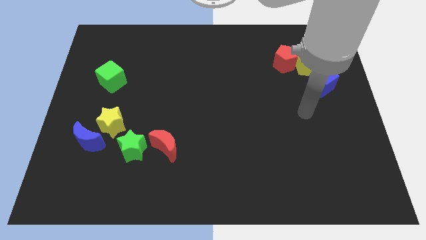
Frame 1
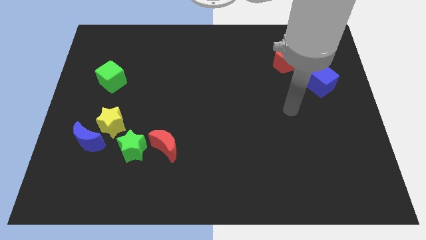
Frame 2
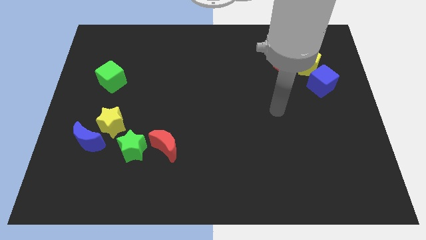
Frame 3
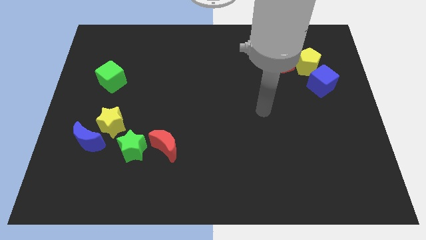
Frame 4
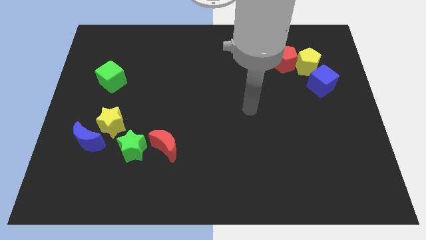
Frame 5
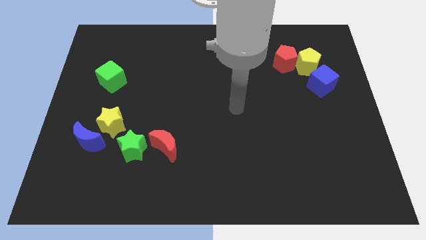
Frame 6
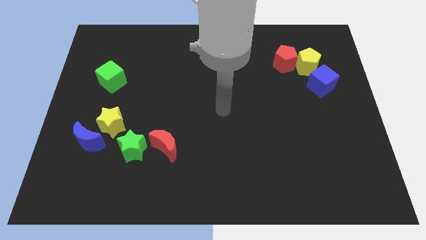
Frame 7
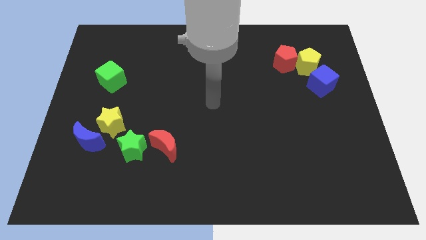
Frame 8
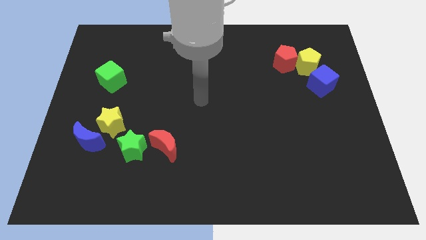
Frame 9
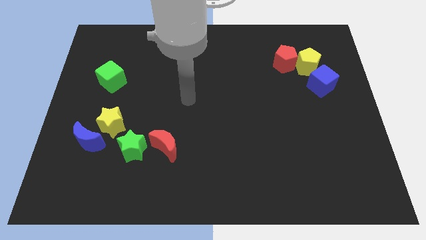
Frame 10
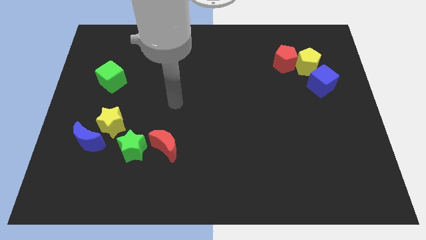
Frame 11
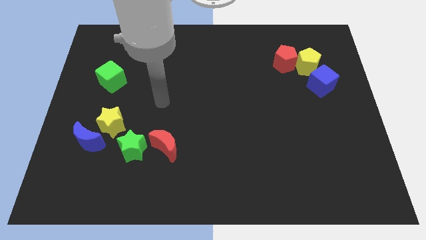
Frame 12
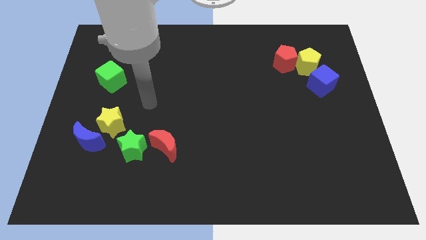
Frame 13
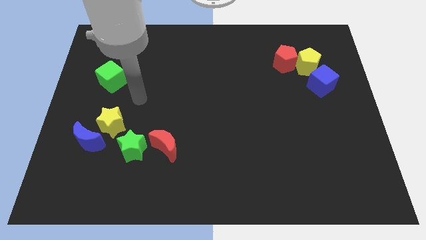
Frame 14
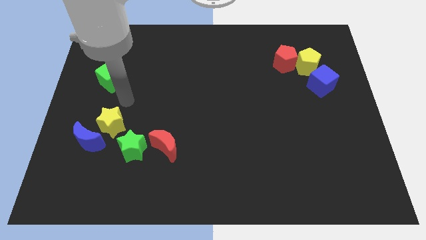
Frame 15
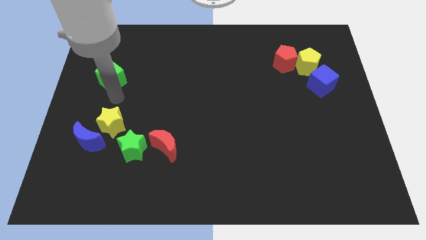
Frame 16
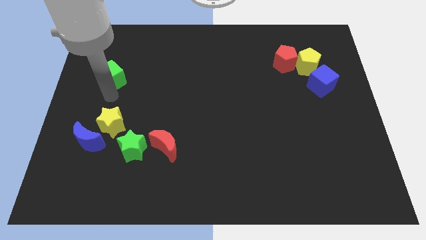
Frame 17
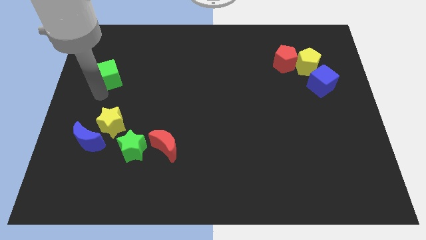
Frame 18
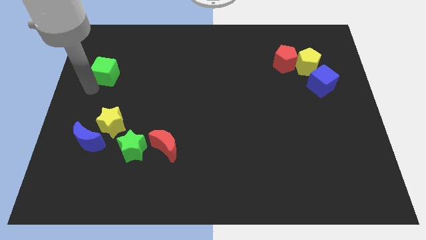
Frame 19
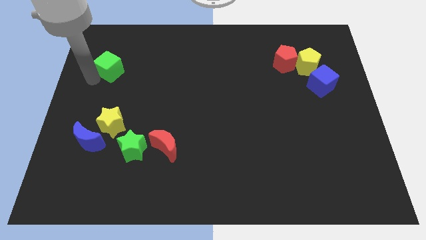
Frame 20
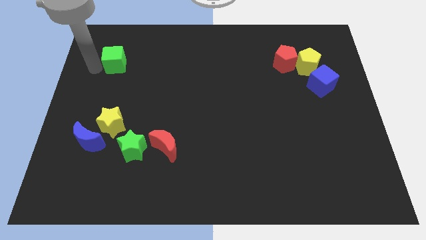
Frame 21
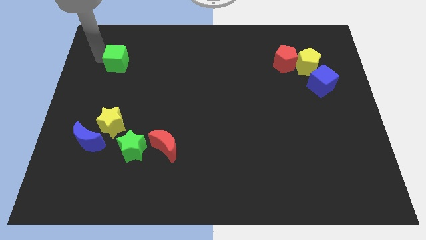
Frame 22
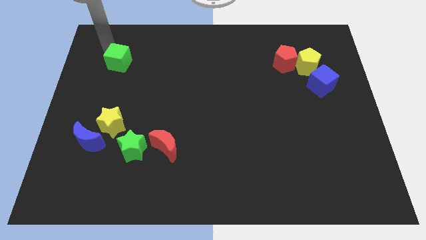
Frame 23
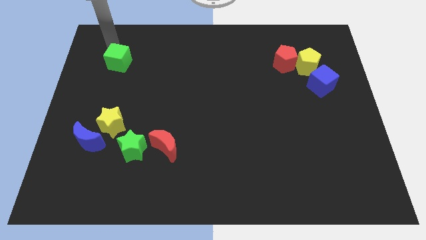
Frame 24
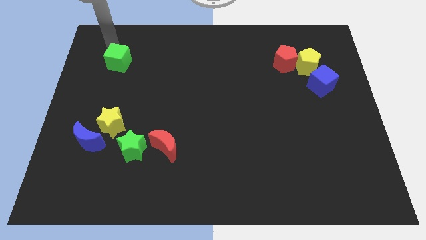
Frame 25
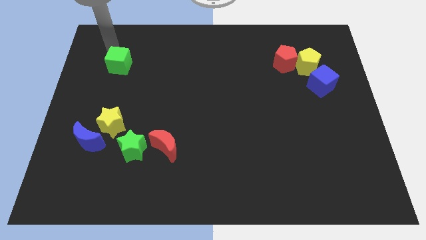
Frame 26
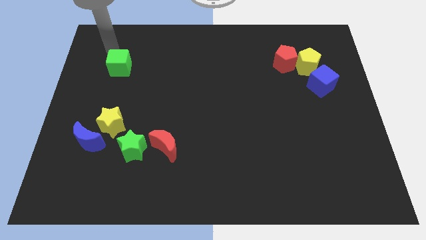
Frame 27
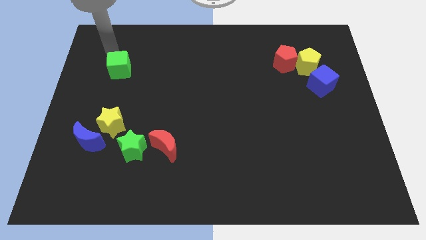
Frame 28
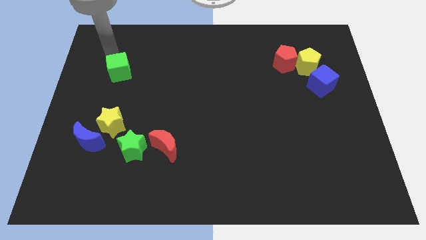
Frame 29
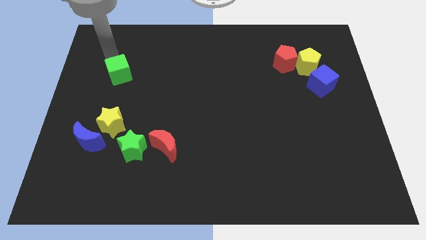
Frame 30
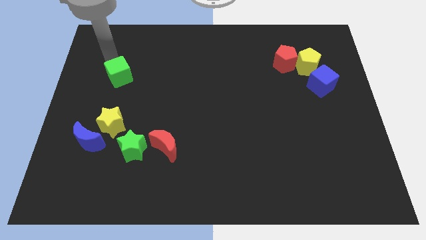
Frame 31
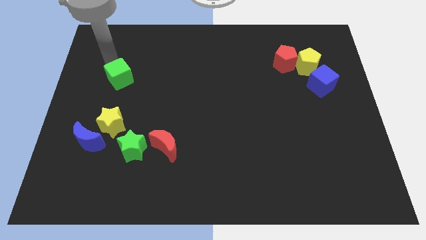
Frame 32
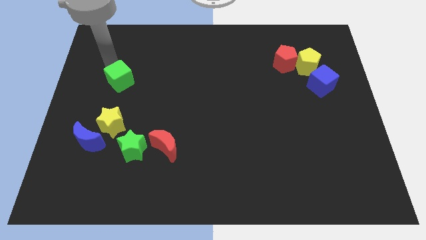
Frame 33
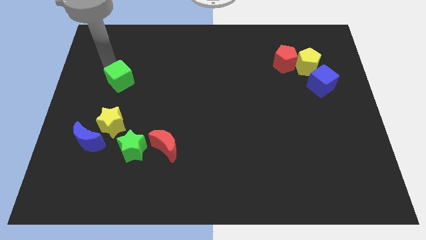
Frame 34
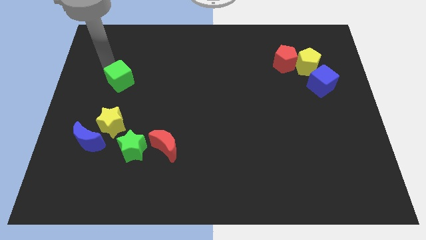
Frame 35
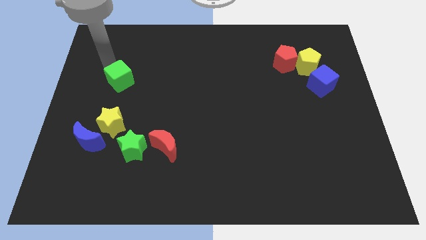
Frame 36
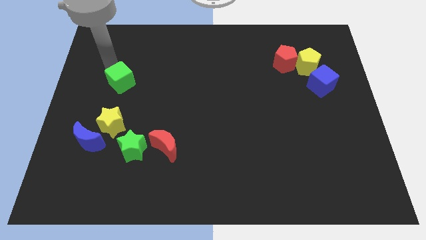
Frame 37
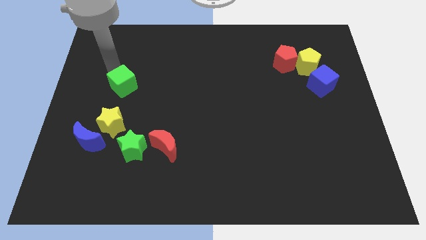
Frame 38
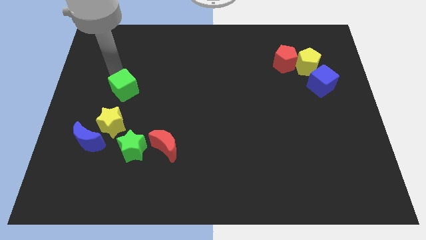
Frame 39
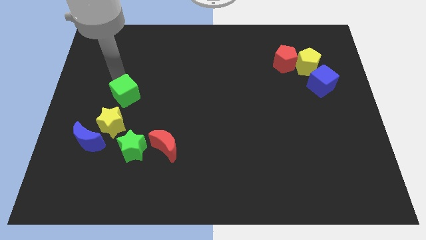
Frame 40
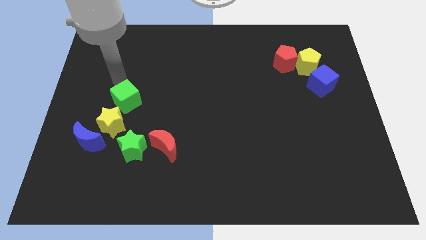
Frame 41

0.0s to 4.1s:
push the green cube a little bit downwards and right

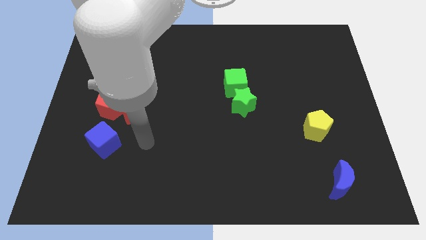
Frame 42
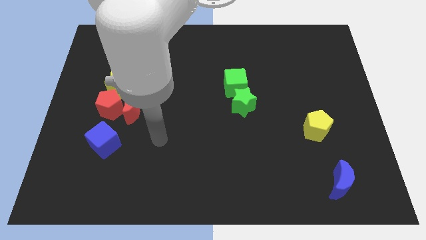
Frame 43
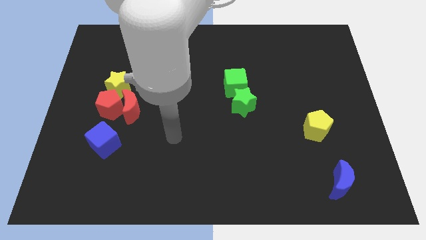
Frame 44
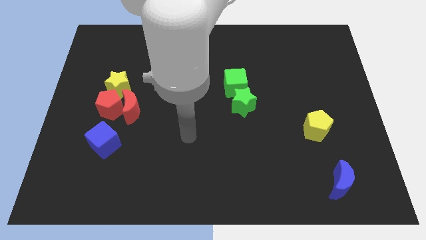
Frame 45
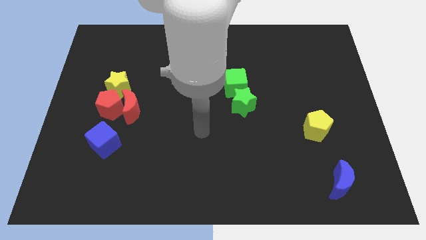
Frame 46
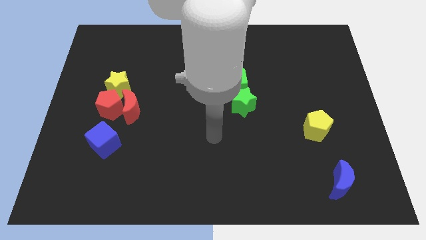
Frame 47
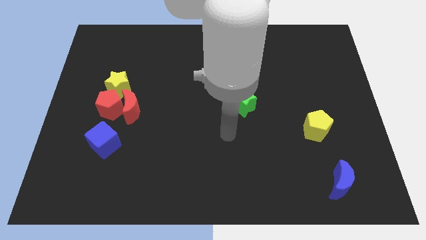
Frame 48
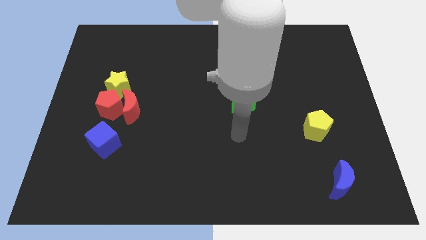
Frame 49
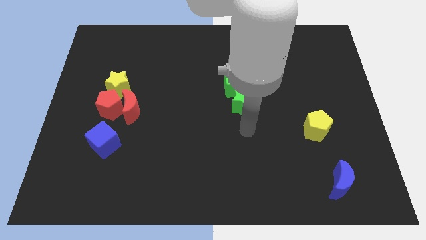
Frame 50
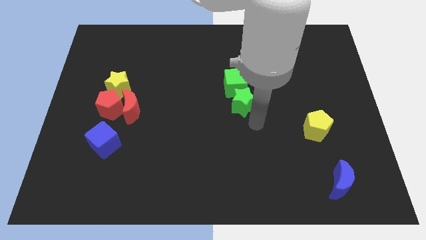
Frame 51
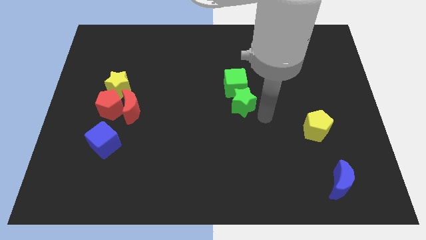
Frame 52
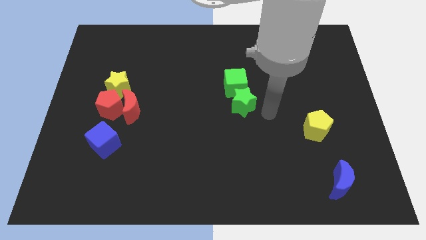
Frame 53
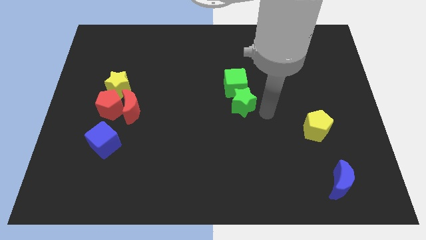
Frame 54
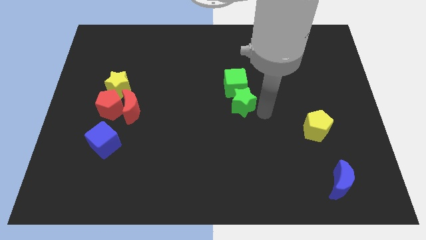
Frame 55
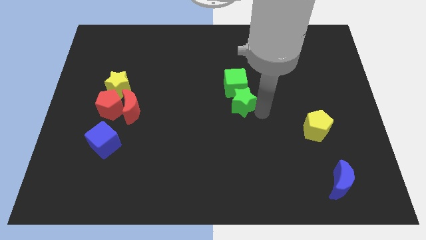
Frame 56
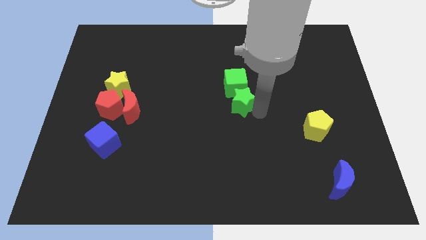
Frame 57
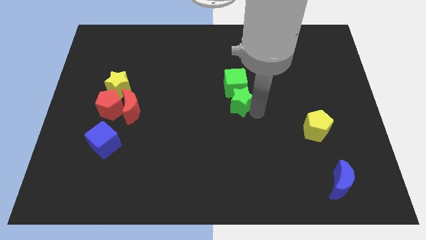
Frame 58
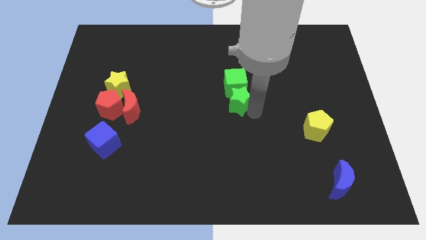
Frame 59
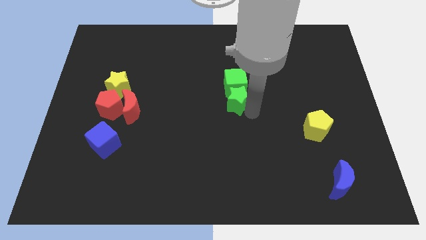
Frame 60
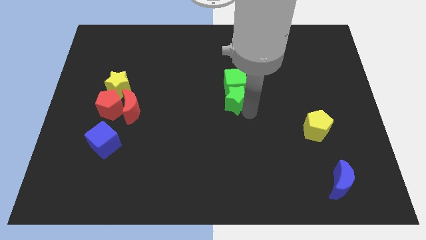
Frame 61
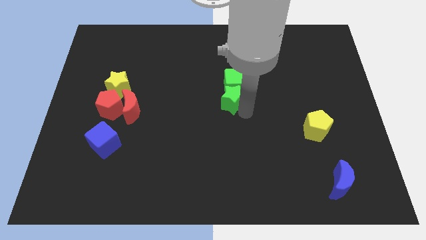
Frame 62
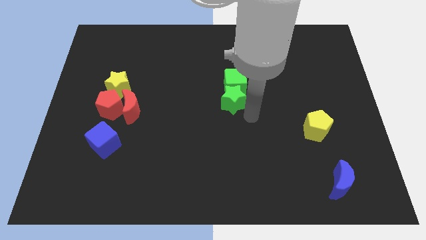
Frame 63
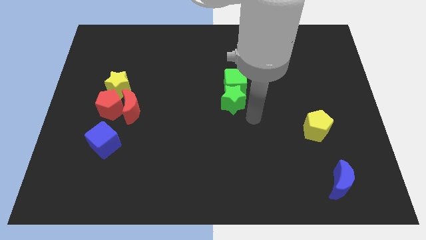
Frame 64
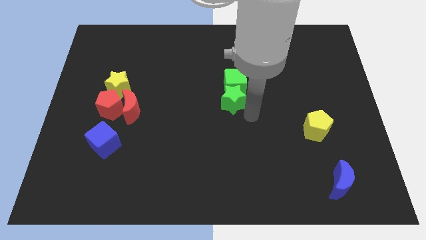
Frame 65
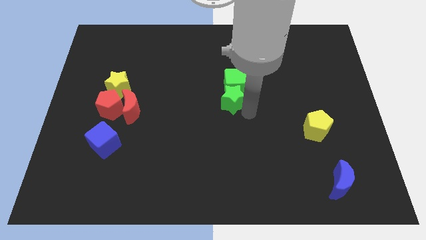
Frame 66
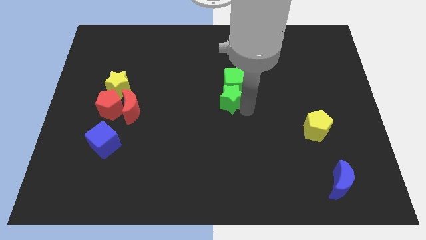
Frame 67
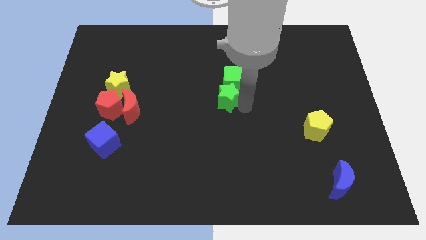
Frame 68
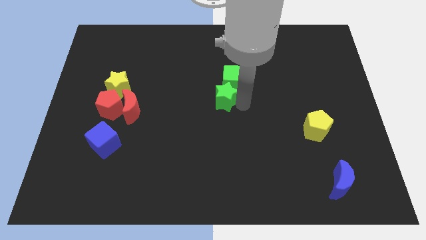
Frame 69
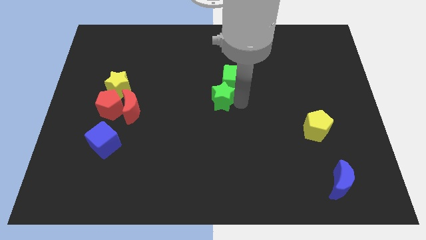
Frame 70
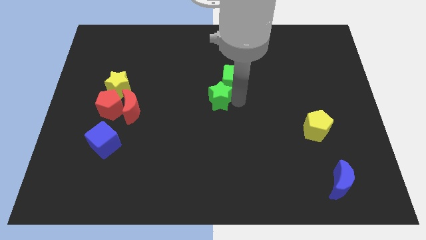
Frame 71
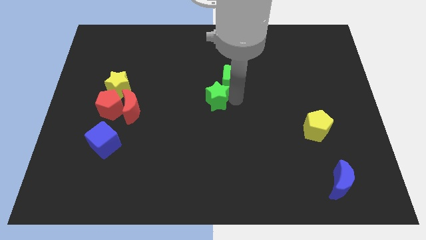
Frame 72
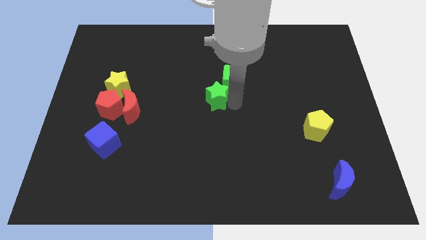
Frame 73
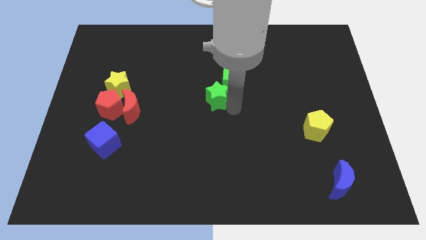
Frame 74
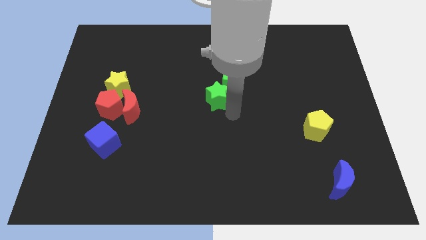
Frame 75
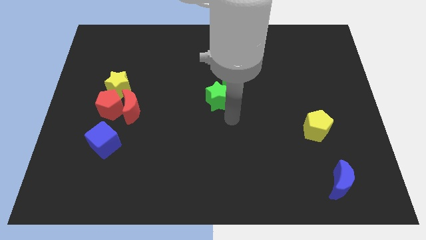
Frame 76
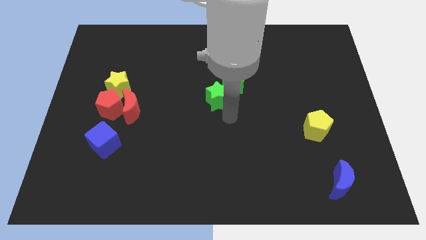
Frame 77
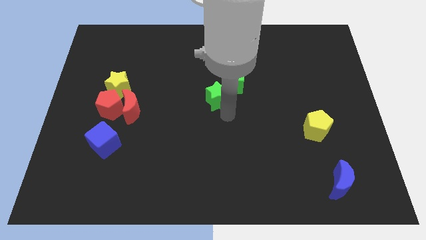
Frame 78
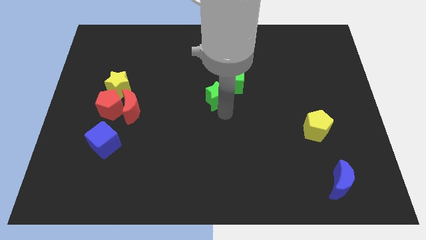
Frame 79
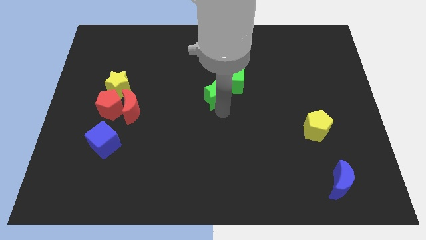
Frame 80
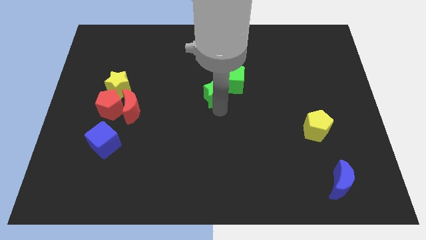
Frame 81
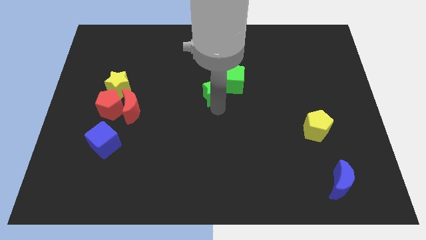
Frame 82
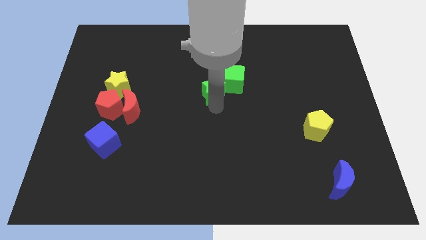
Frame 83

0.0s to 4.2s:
move the green star upwards and left a little
